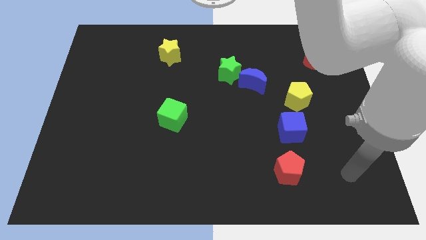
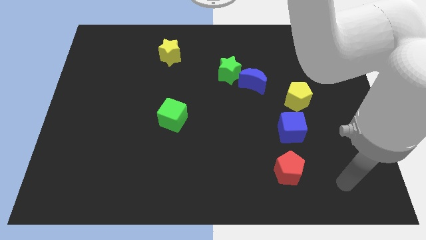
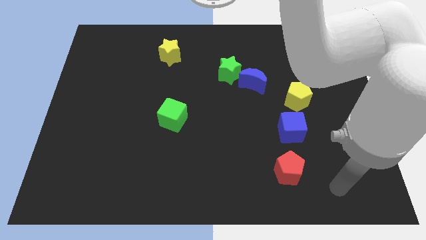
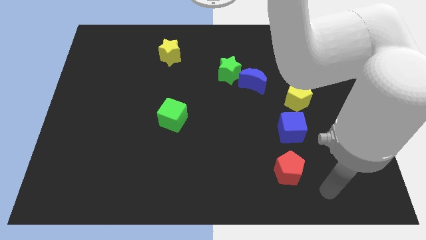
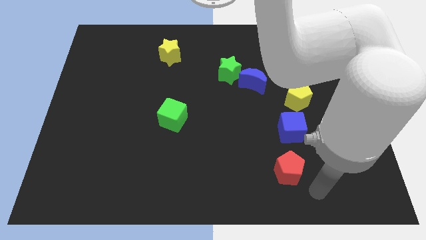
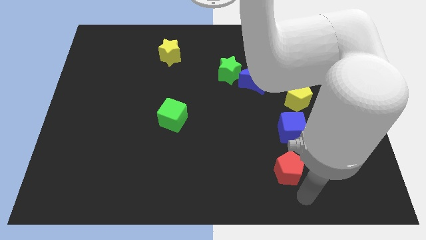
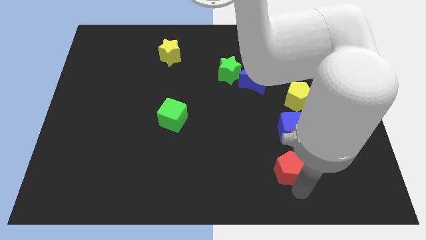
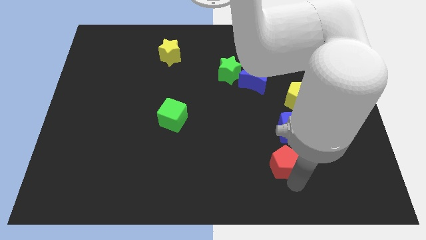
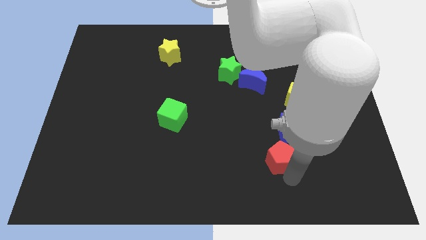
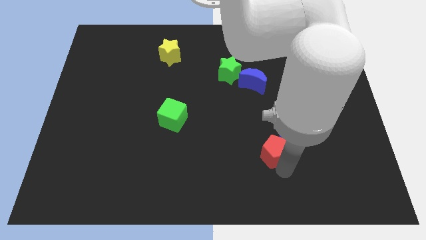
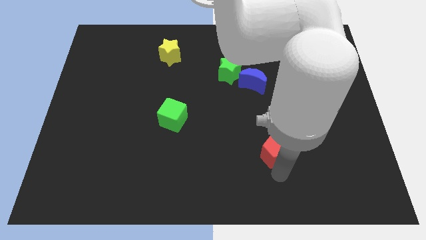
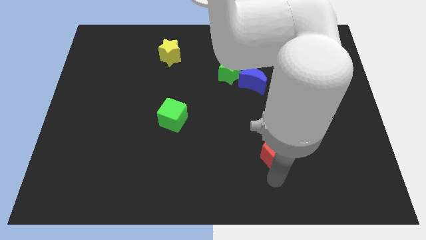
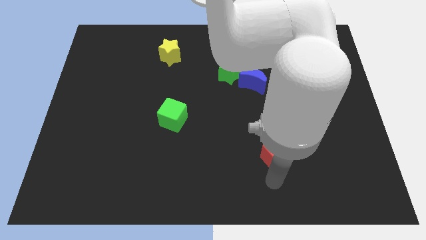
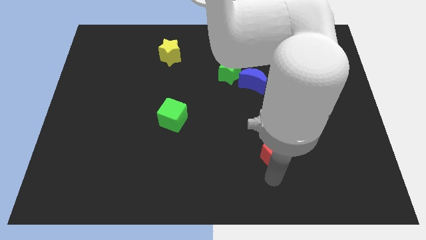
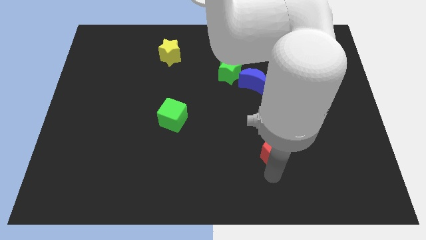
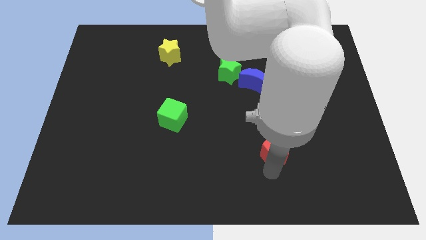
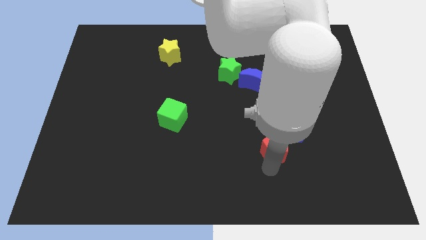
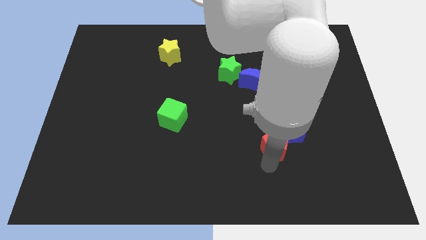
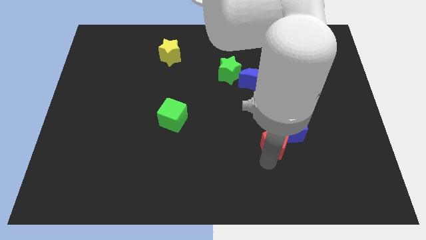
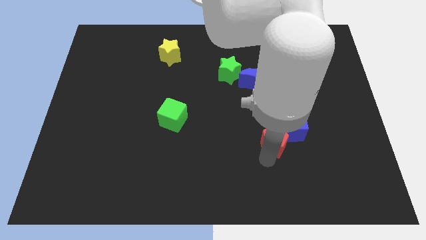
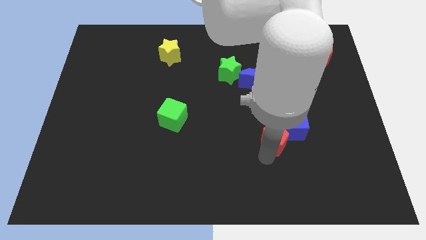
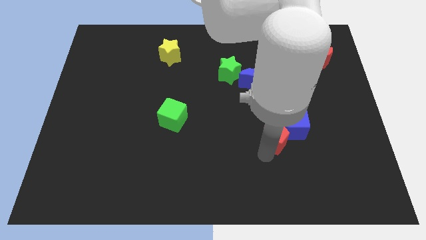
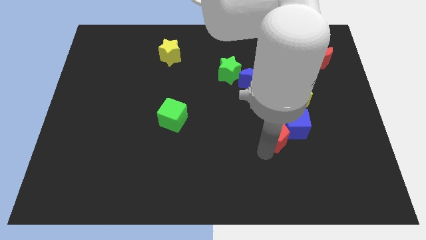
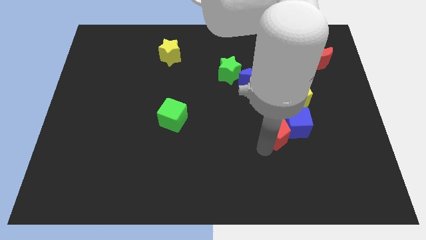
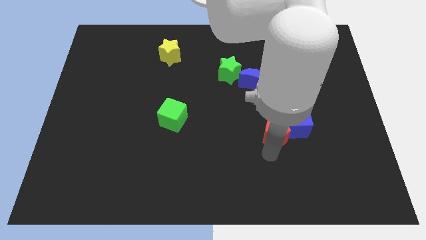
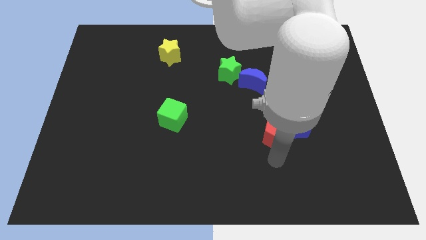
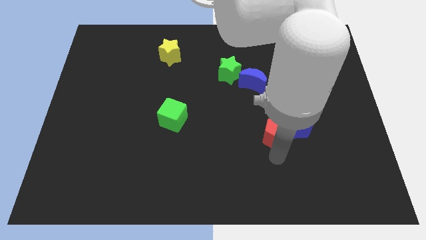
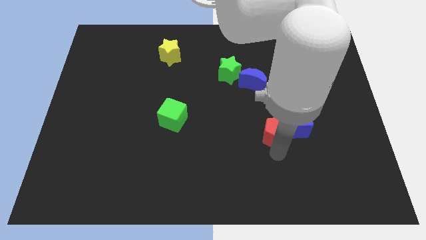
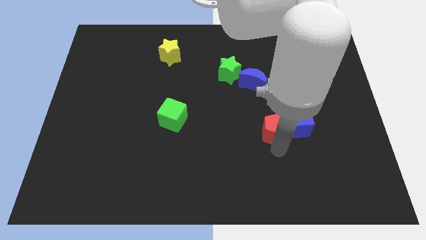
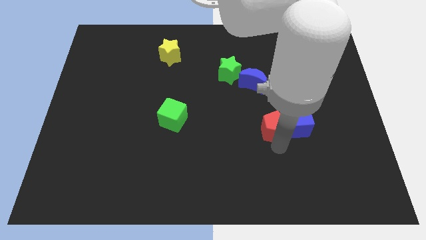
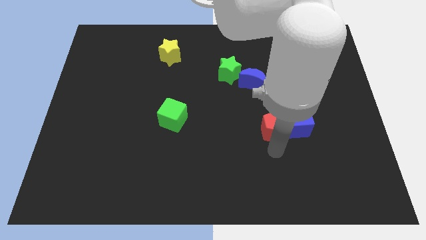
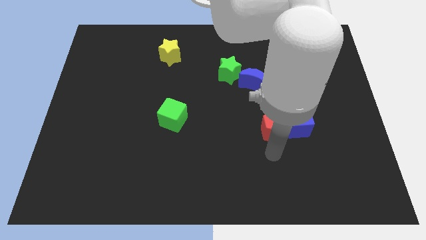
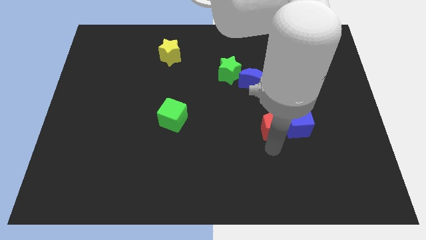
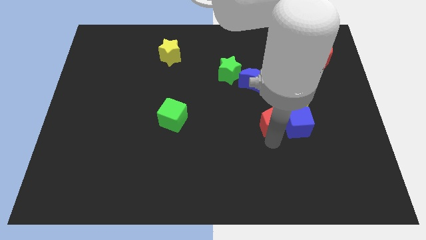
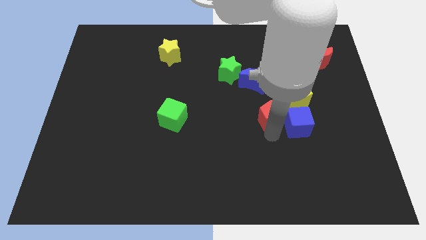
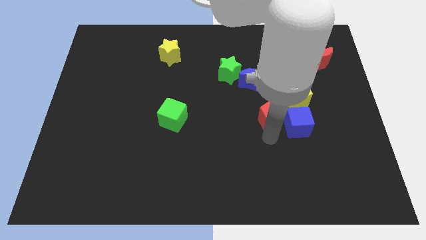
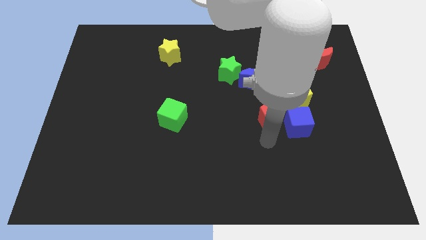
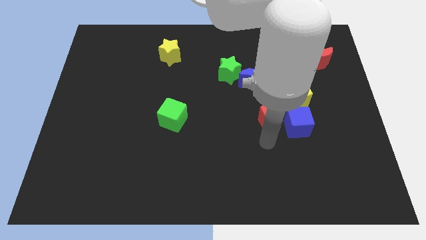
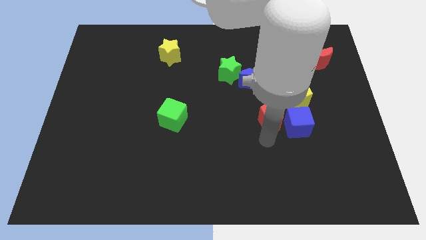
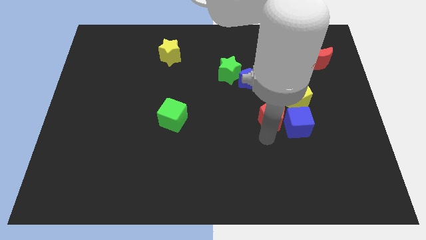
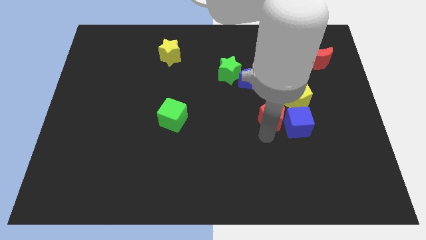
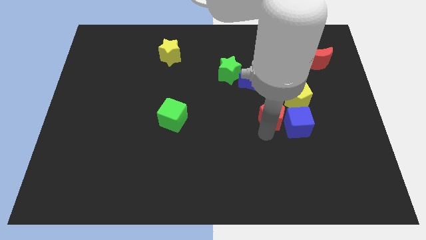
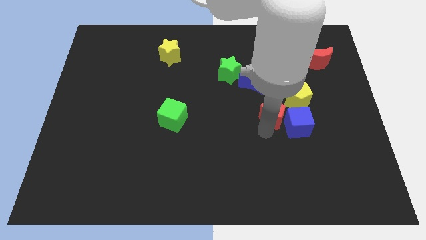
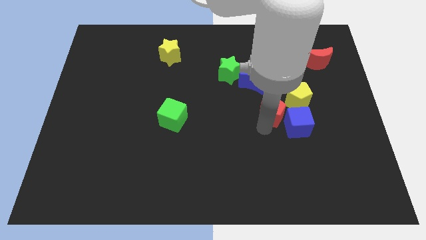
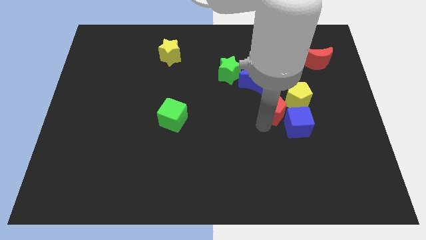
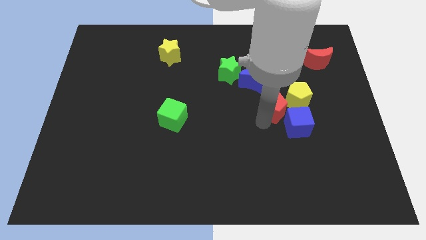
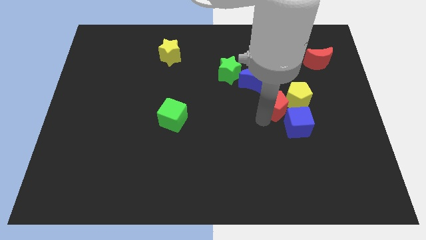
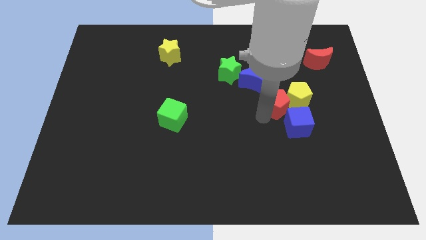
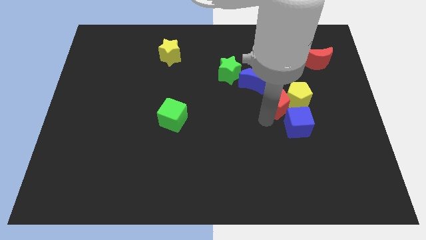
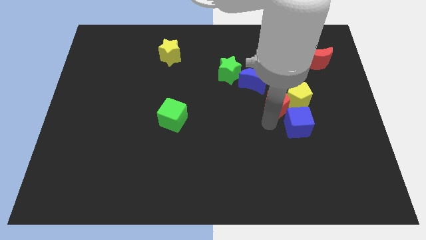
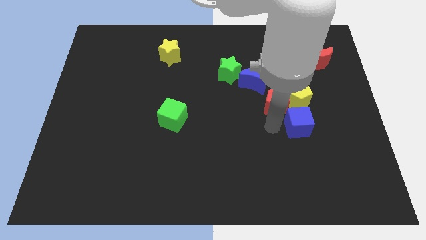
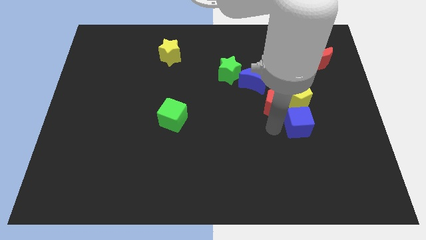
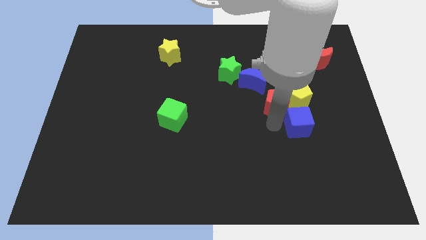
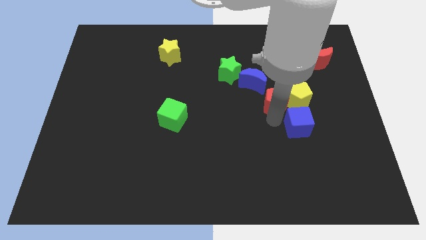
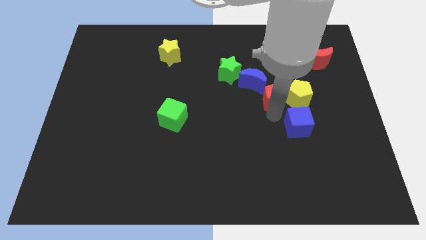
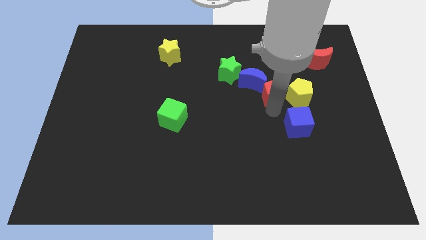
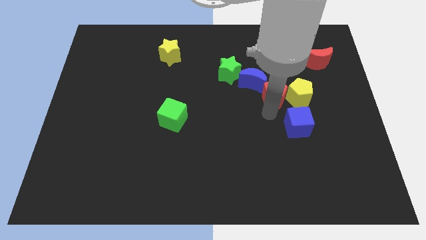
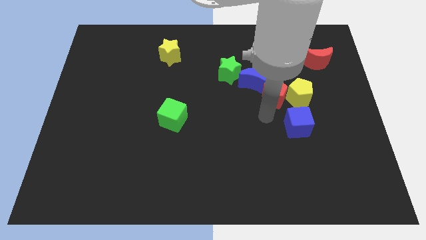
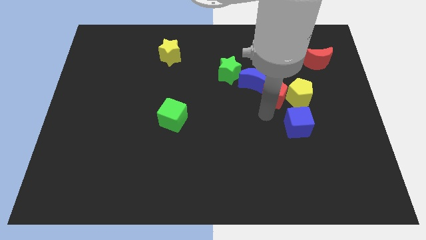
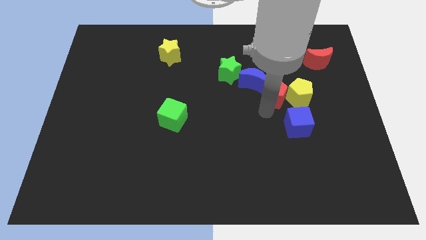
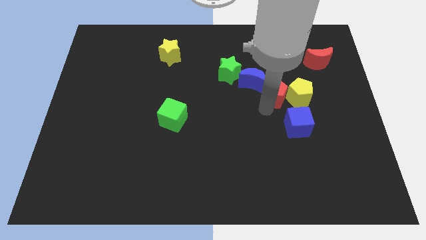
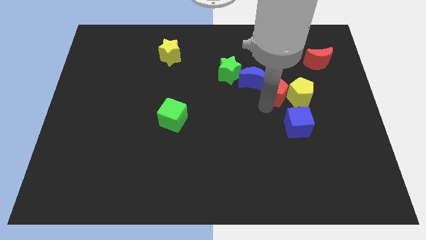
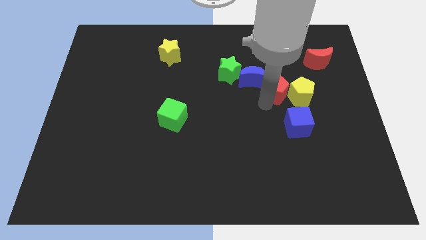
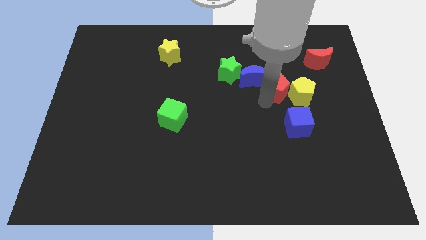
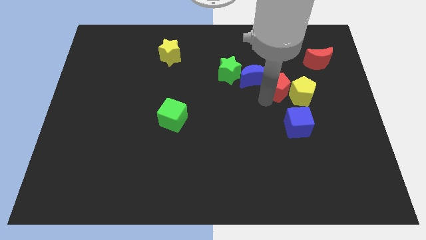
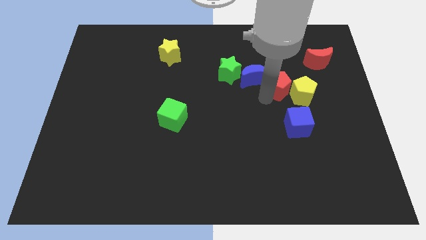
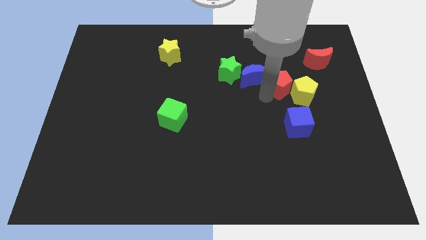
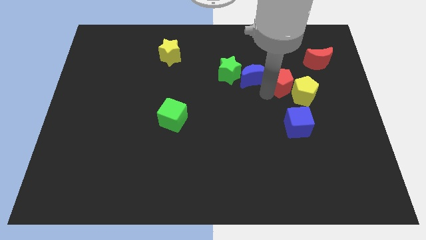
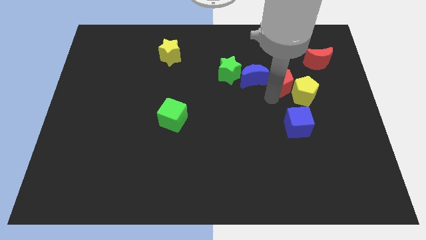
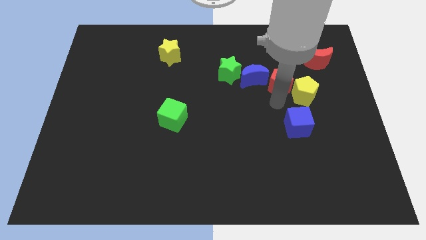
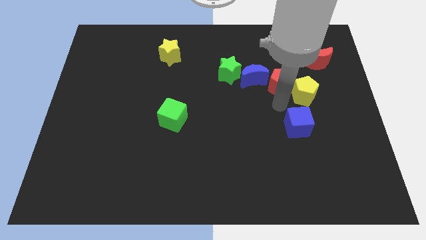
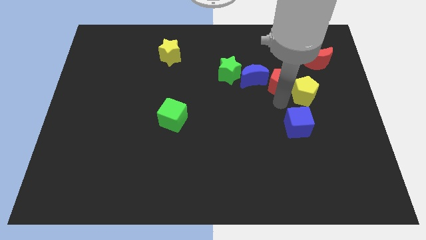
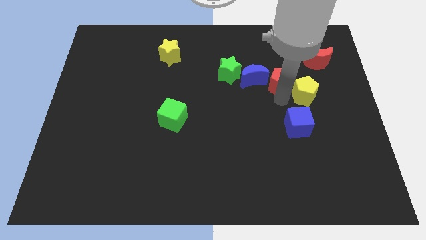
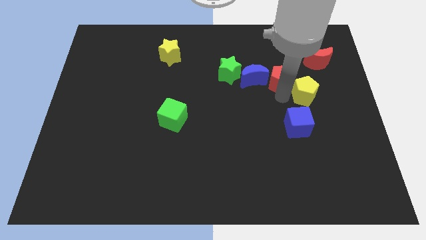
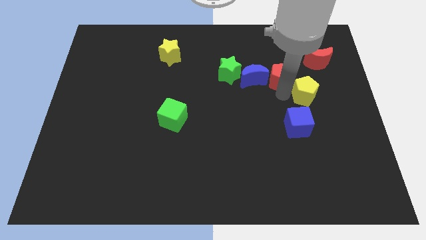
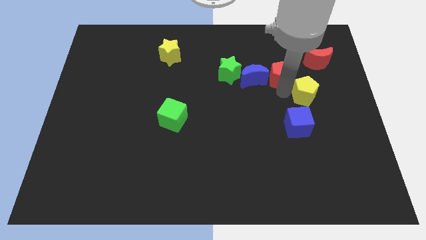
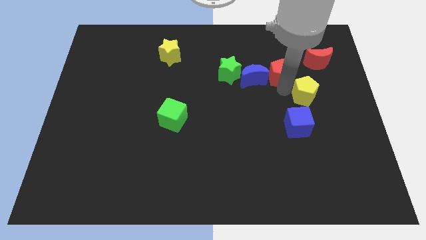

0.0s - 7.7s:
slide the red pentagon just left of the red moon
